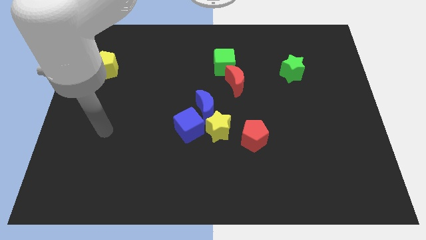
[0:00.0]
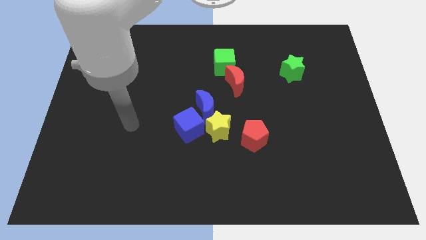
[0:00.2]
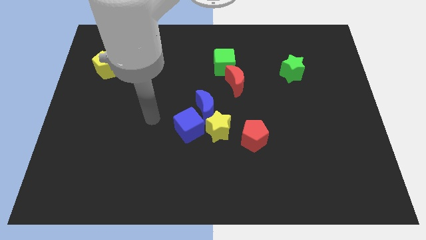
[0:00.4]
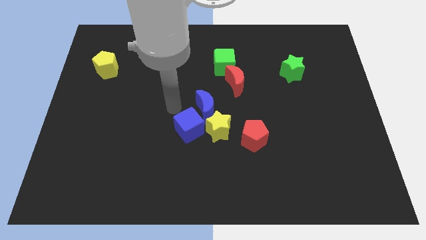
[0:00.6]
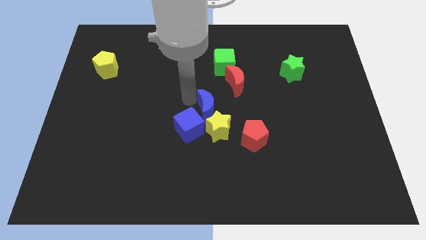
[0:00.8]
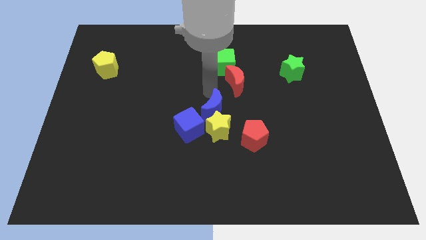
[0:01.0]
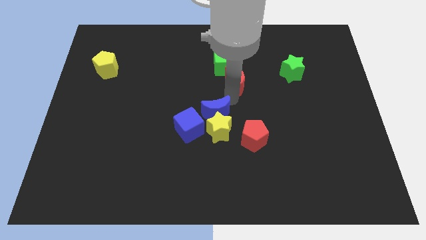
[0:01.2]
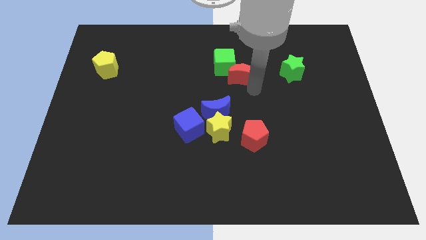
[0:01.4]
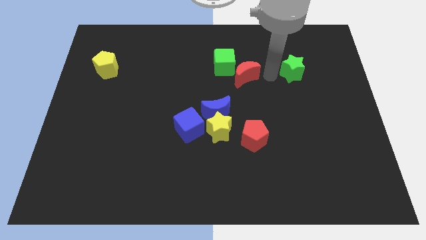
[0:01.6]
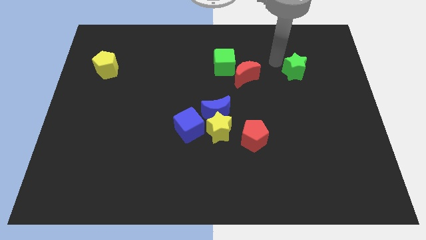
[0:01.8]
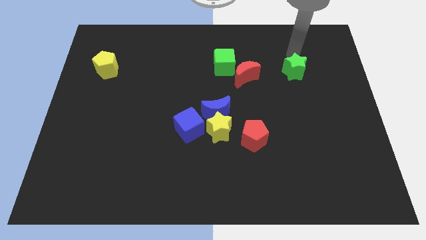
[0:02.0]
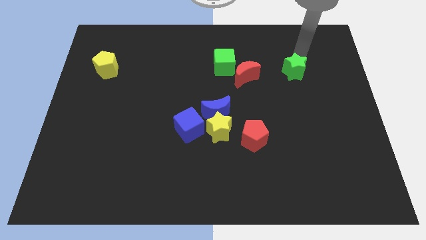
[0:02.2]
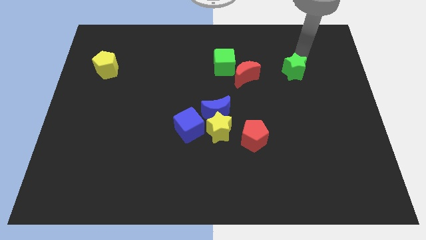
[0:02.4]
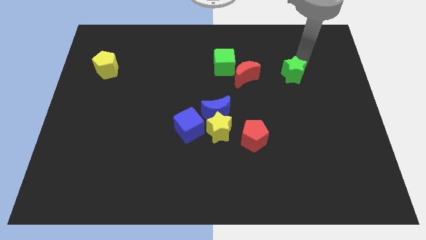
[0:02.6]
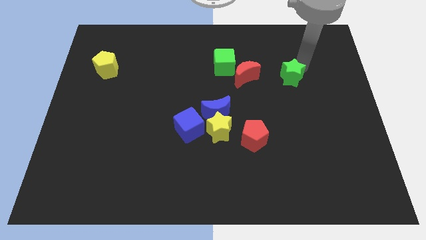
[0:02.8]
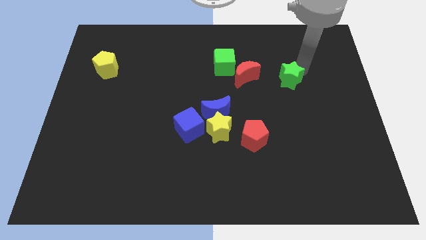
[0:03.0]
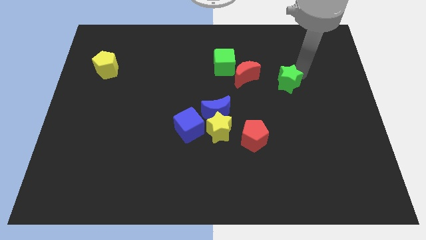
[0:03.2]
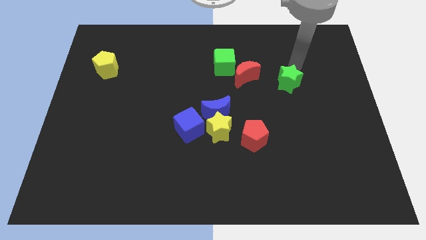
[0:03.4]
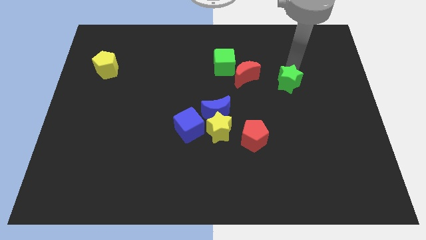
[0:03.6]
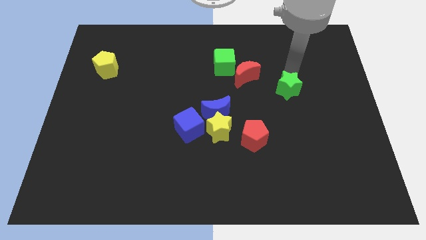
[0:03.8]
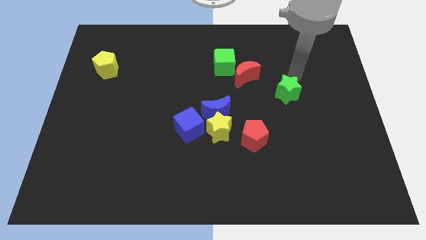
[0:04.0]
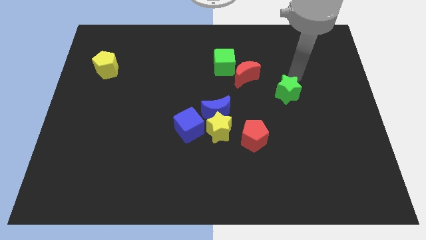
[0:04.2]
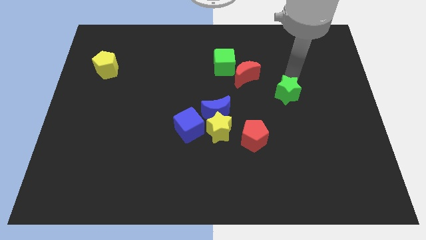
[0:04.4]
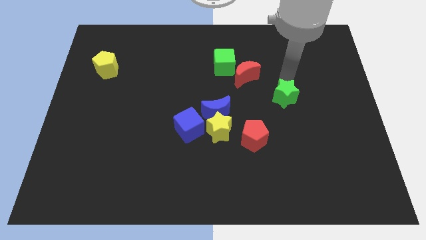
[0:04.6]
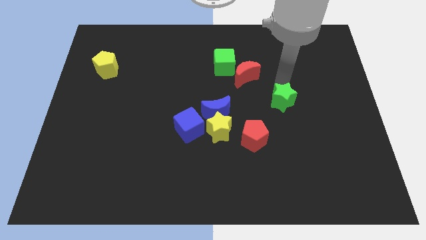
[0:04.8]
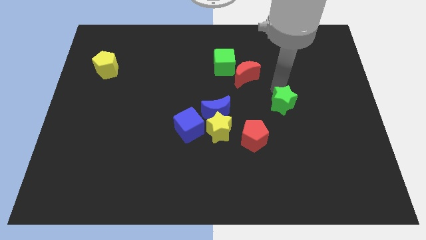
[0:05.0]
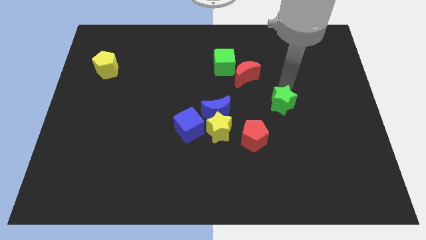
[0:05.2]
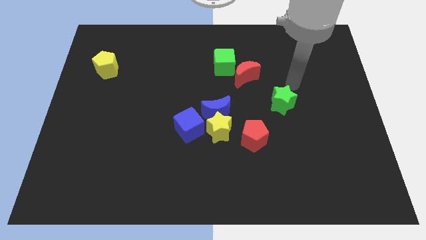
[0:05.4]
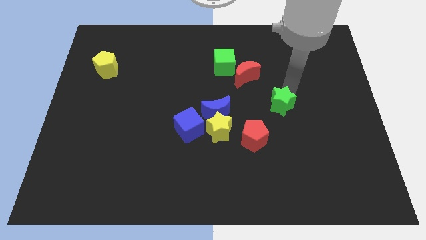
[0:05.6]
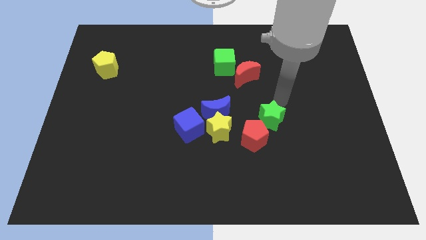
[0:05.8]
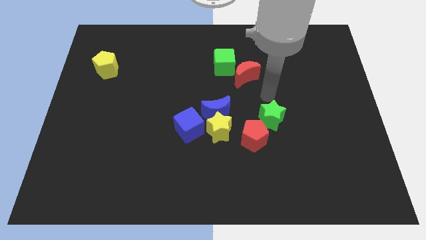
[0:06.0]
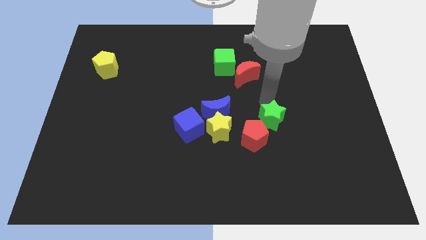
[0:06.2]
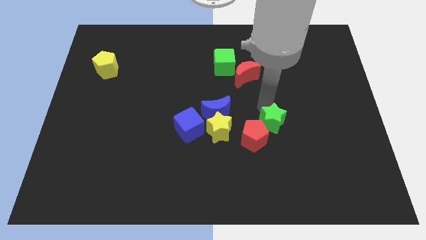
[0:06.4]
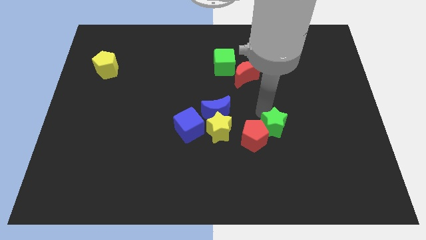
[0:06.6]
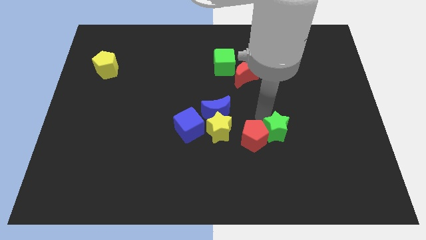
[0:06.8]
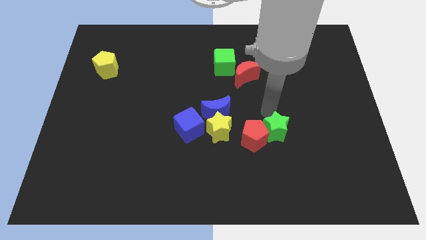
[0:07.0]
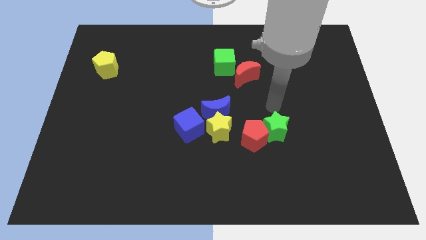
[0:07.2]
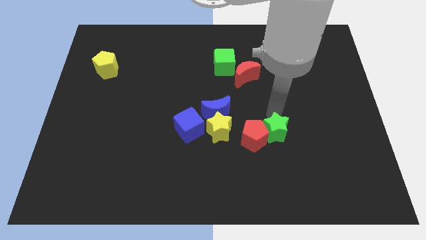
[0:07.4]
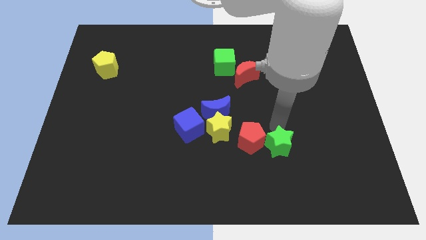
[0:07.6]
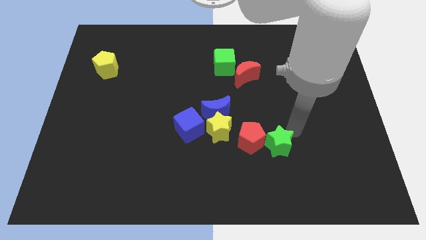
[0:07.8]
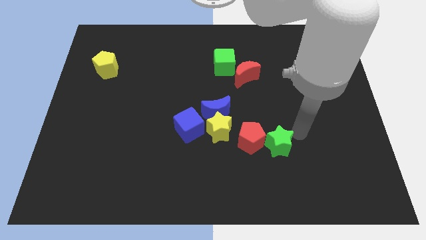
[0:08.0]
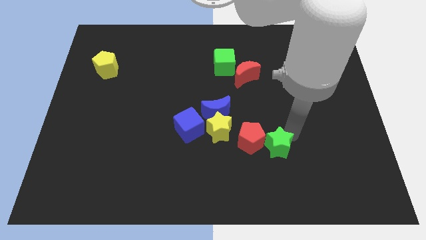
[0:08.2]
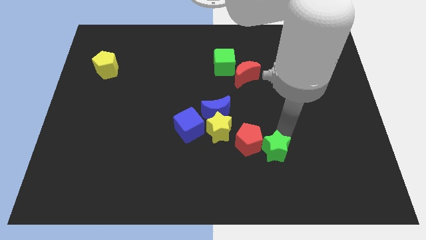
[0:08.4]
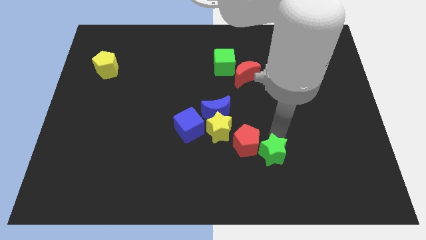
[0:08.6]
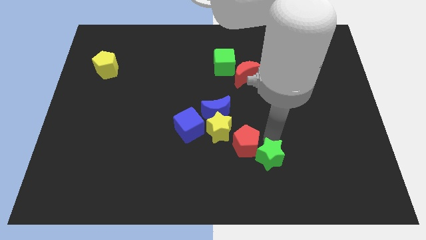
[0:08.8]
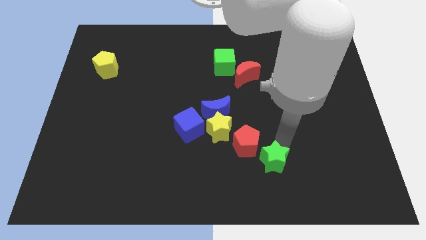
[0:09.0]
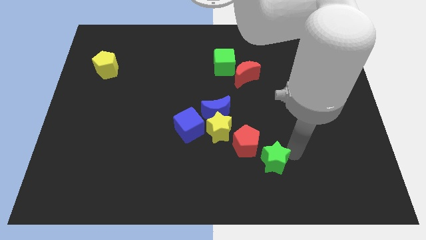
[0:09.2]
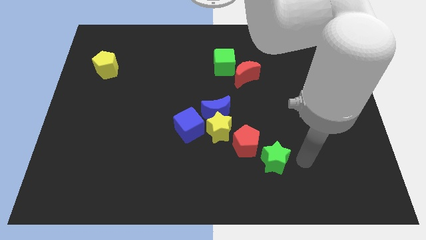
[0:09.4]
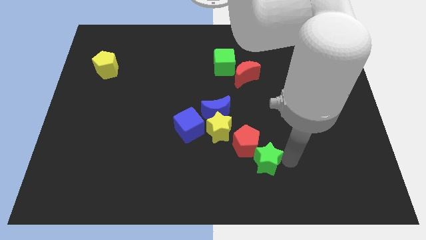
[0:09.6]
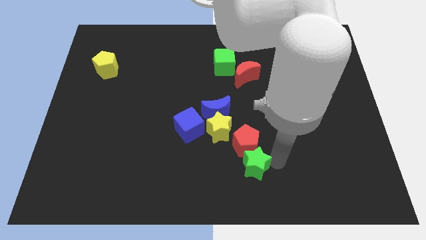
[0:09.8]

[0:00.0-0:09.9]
slide the green star diagonally down and to the left of the red pentagon

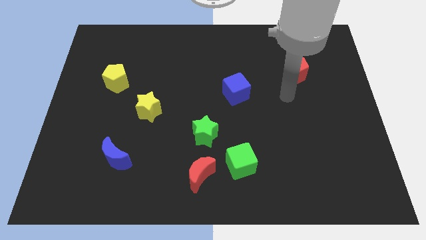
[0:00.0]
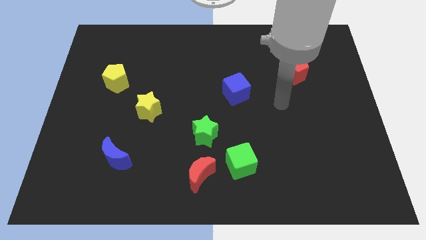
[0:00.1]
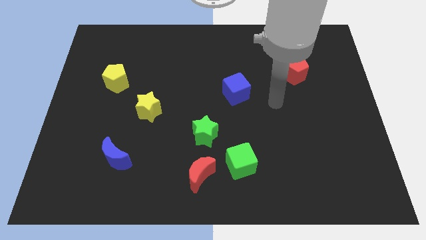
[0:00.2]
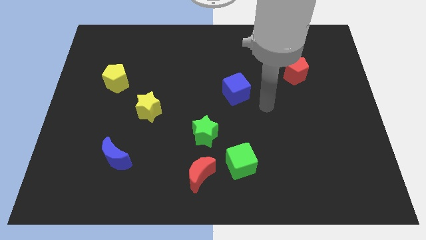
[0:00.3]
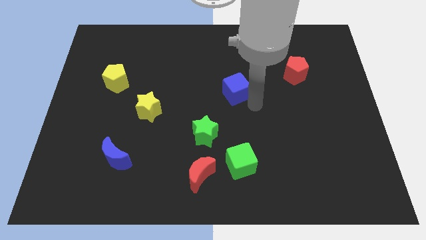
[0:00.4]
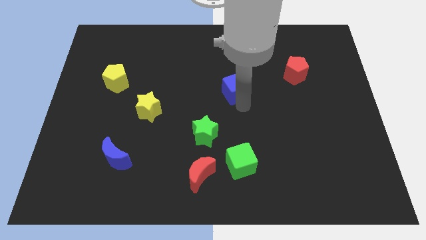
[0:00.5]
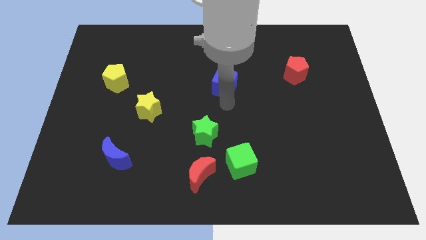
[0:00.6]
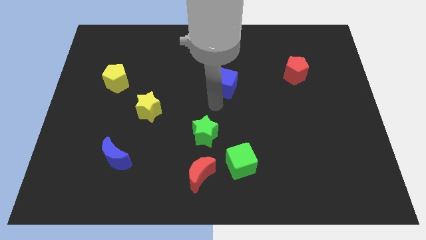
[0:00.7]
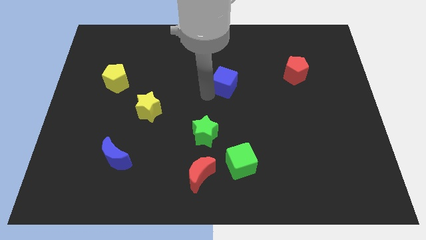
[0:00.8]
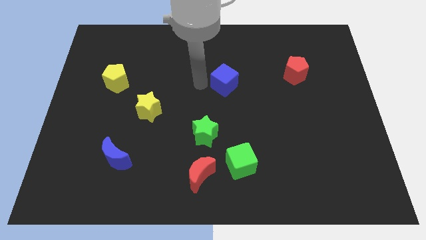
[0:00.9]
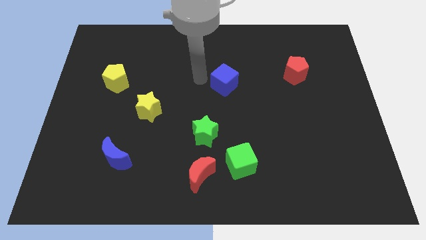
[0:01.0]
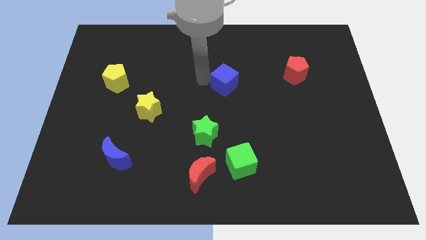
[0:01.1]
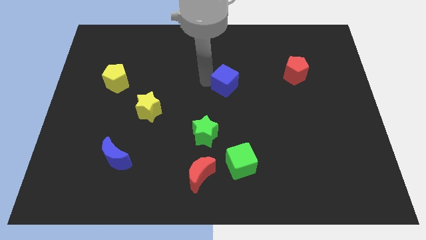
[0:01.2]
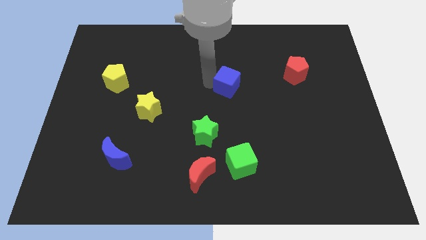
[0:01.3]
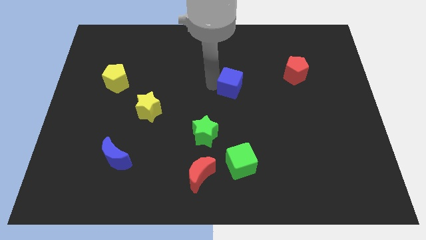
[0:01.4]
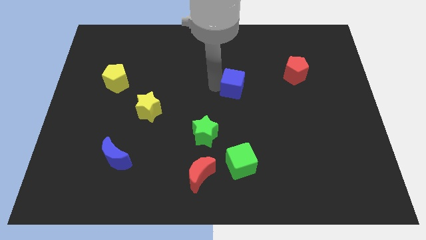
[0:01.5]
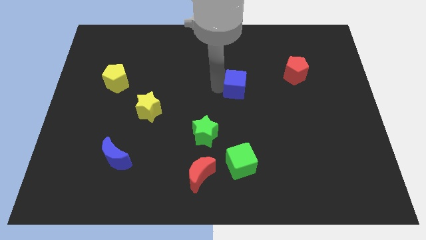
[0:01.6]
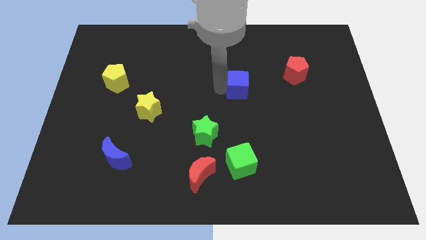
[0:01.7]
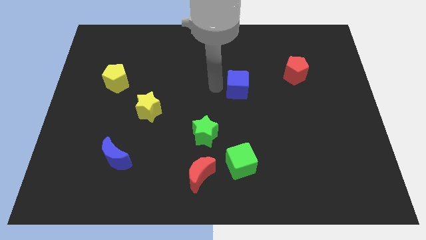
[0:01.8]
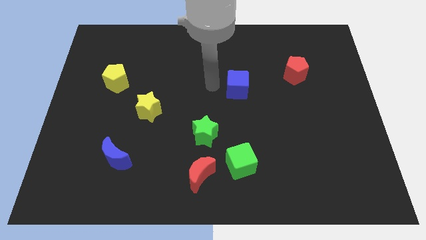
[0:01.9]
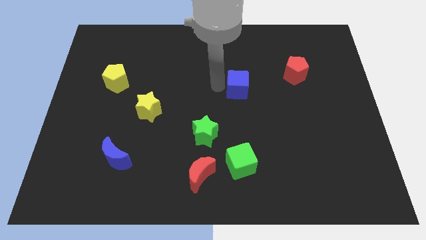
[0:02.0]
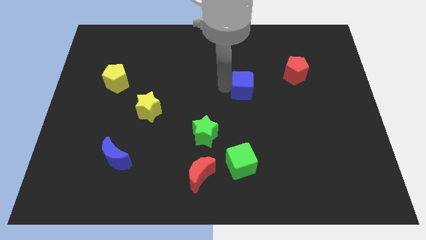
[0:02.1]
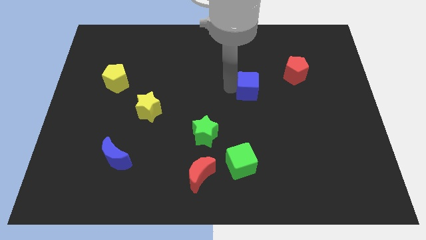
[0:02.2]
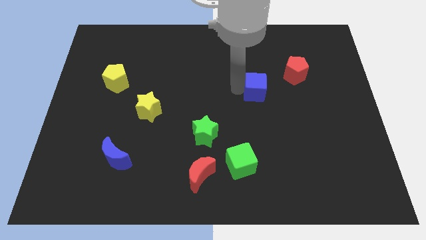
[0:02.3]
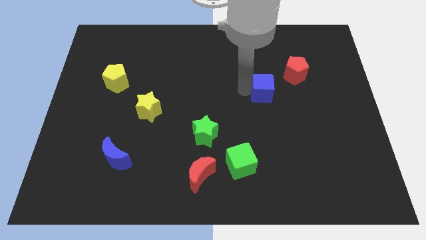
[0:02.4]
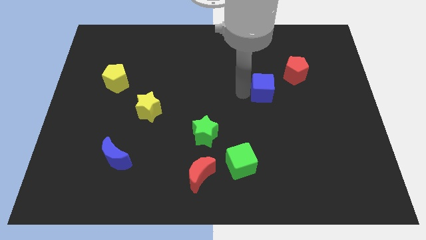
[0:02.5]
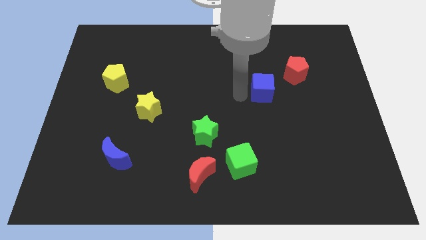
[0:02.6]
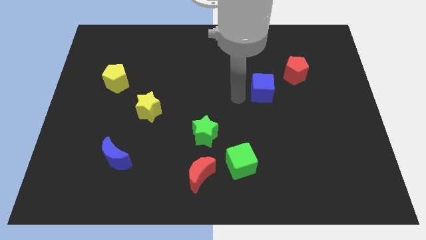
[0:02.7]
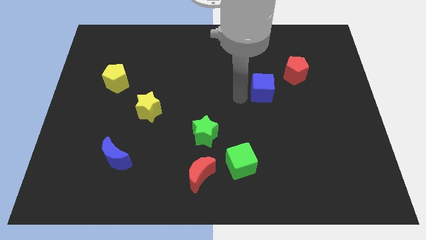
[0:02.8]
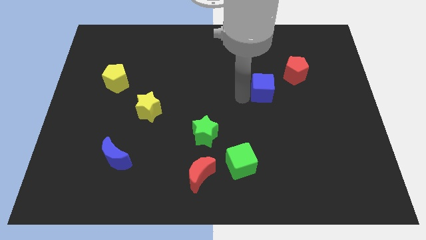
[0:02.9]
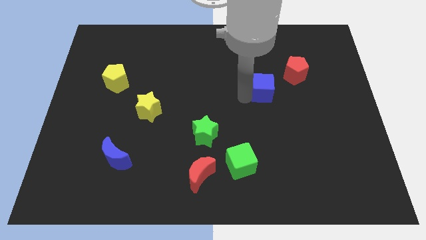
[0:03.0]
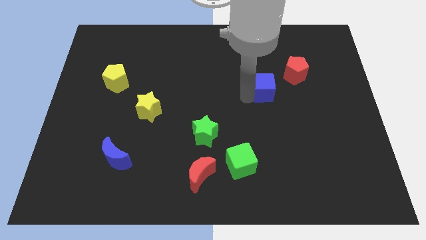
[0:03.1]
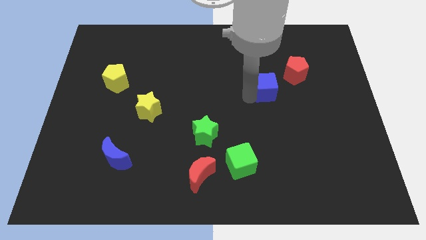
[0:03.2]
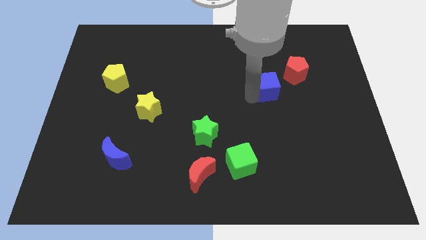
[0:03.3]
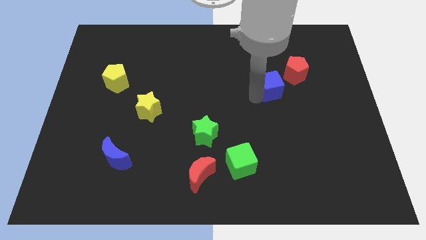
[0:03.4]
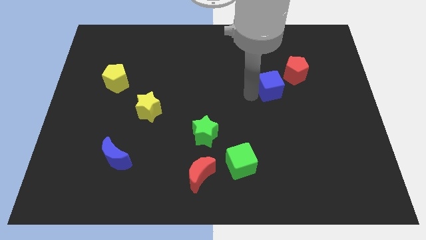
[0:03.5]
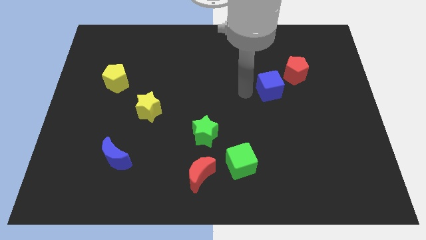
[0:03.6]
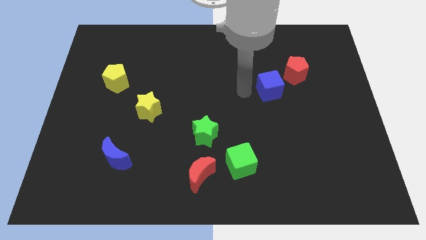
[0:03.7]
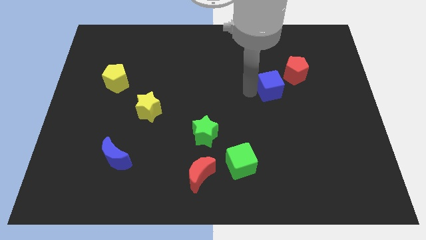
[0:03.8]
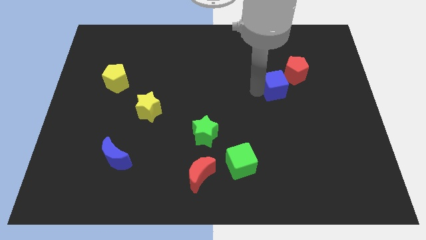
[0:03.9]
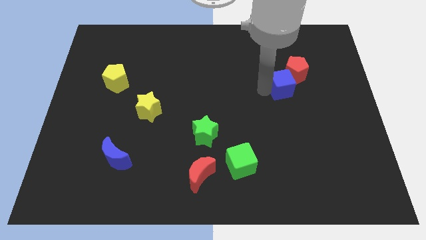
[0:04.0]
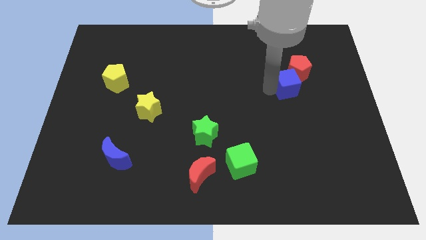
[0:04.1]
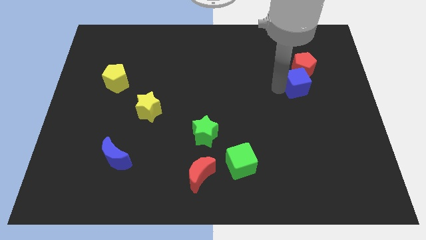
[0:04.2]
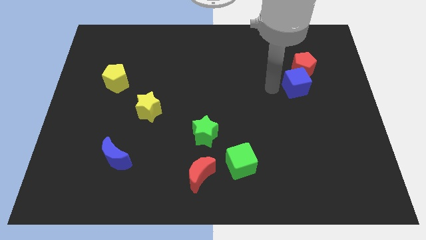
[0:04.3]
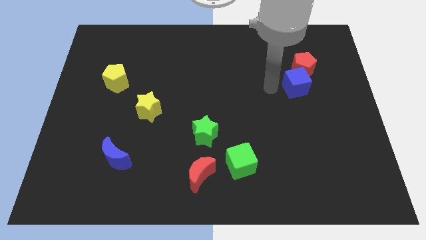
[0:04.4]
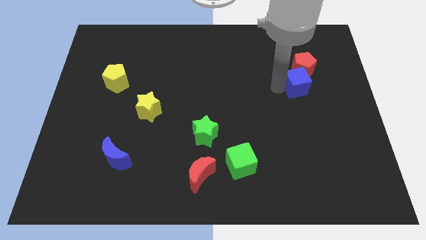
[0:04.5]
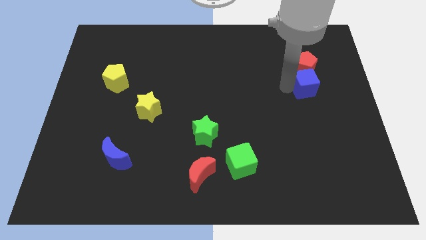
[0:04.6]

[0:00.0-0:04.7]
slide the blue cube diagonally down and to the right of the red pentagon
